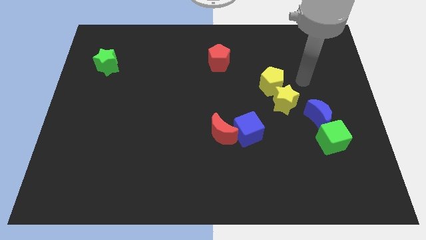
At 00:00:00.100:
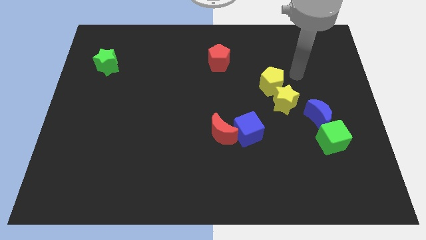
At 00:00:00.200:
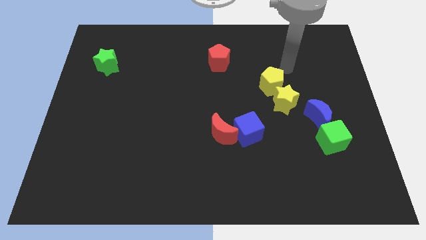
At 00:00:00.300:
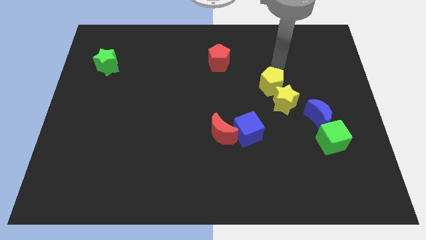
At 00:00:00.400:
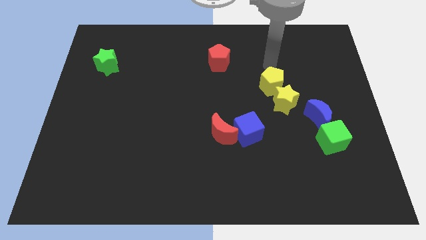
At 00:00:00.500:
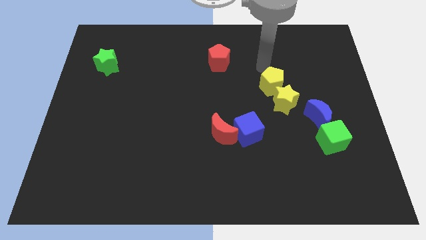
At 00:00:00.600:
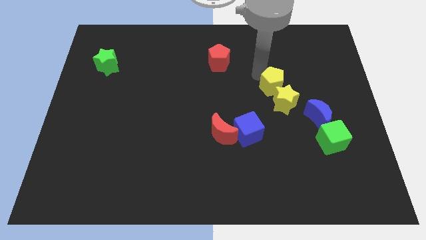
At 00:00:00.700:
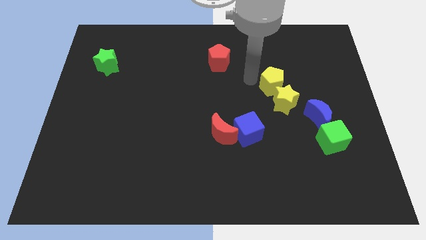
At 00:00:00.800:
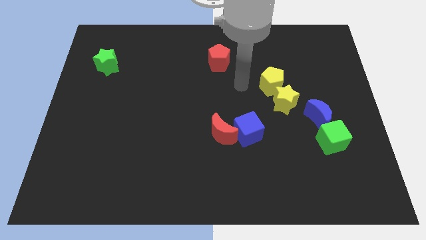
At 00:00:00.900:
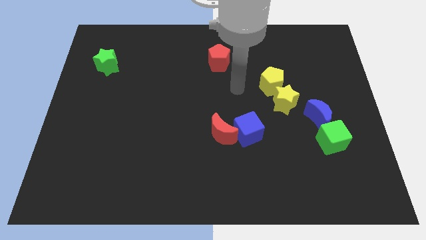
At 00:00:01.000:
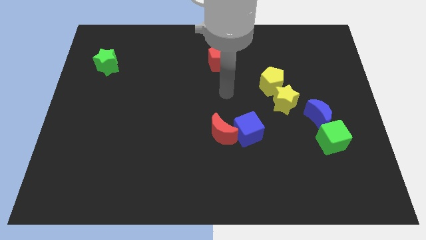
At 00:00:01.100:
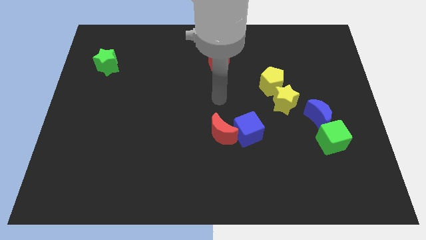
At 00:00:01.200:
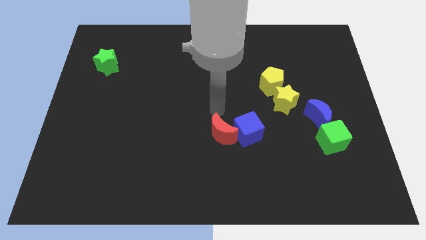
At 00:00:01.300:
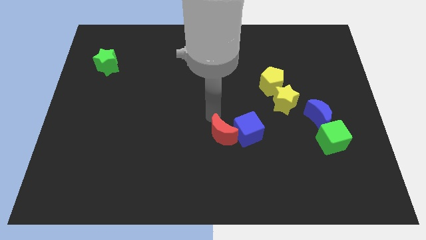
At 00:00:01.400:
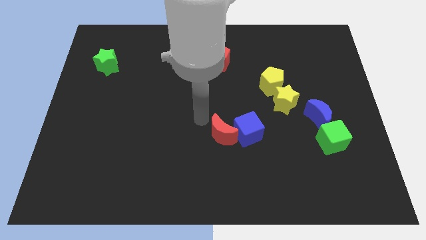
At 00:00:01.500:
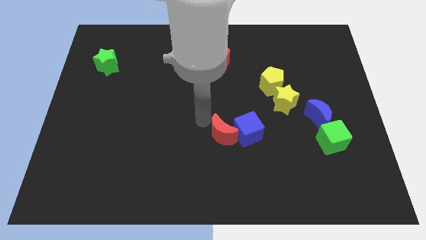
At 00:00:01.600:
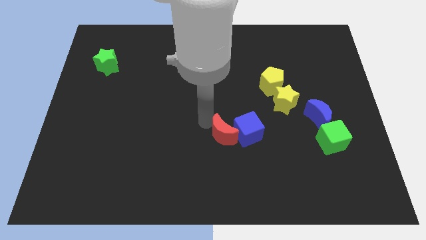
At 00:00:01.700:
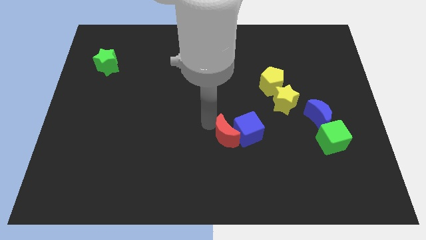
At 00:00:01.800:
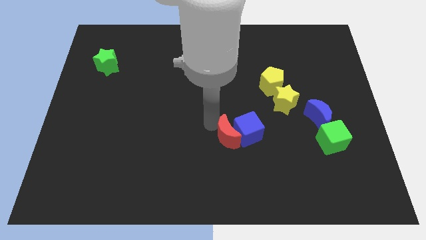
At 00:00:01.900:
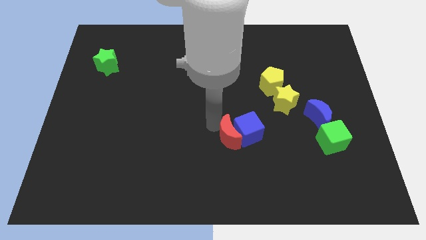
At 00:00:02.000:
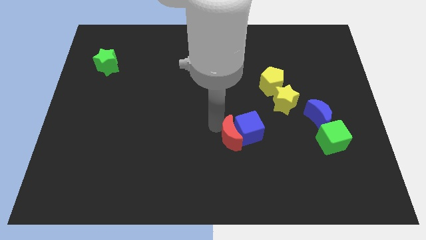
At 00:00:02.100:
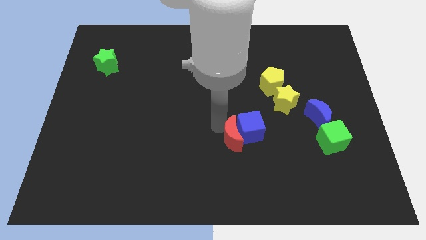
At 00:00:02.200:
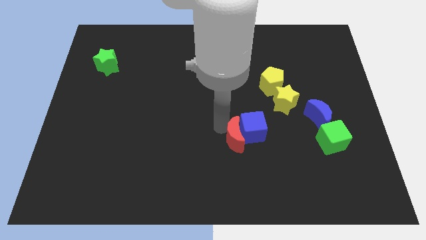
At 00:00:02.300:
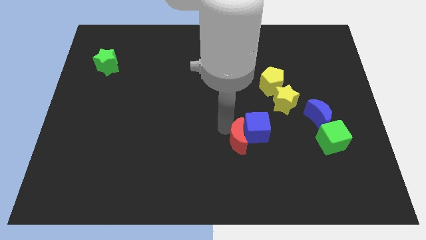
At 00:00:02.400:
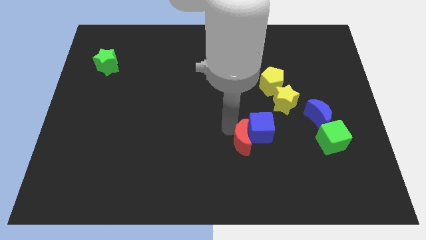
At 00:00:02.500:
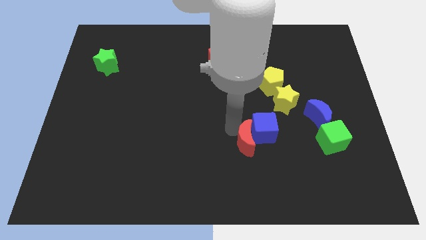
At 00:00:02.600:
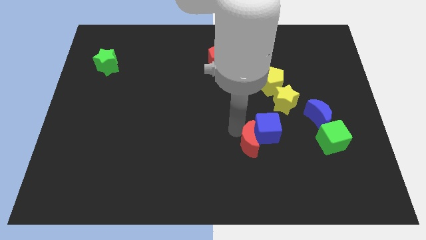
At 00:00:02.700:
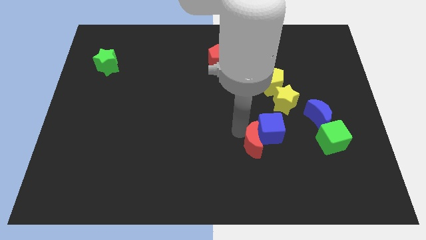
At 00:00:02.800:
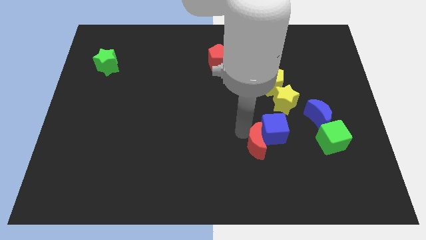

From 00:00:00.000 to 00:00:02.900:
move the red moon a little bit right

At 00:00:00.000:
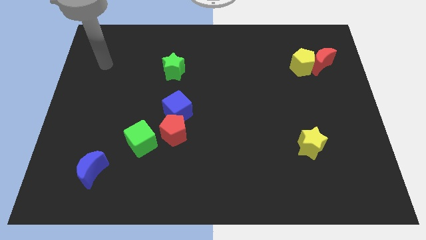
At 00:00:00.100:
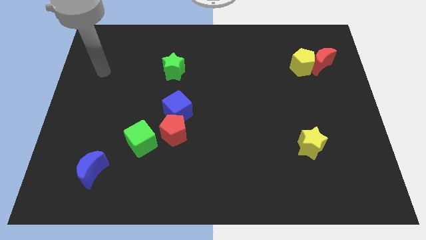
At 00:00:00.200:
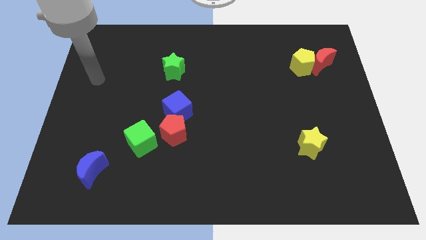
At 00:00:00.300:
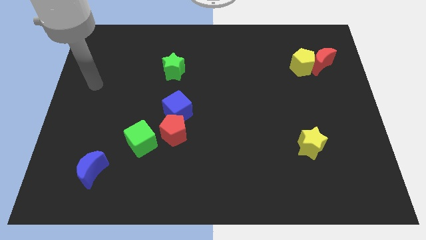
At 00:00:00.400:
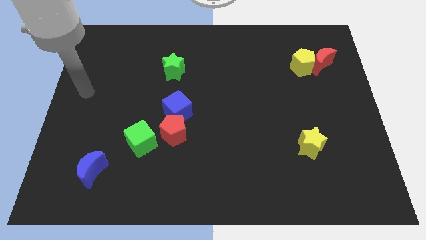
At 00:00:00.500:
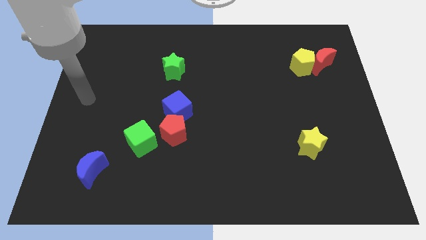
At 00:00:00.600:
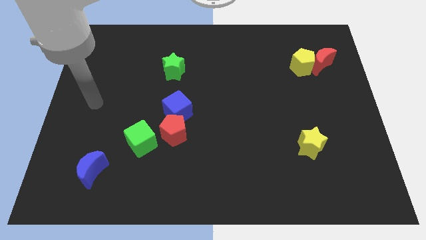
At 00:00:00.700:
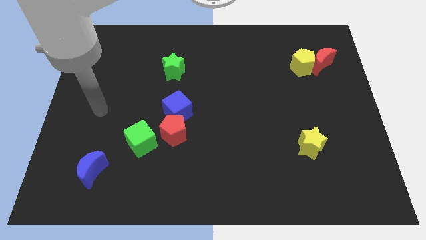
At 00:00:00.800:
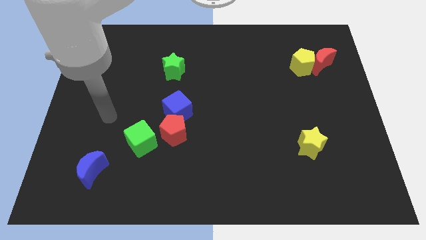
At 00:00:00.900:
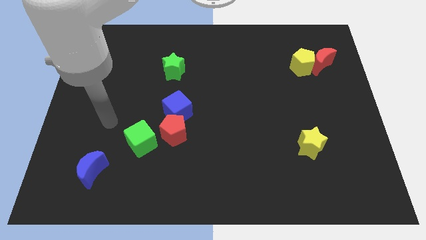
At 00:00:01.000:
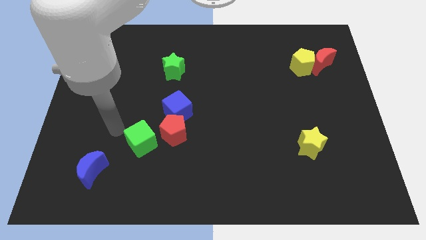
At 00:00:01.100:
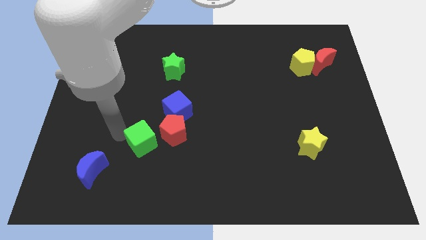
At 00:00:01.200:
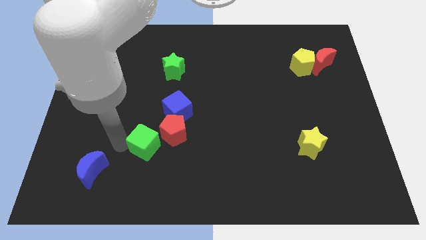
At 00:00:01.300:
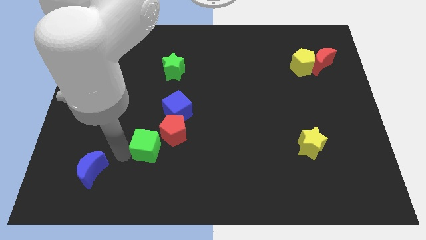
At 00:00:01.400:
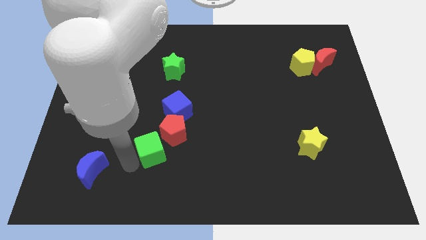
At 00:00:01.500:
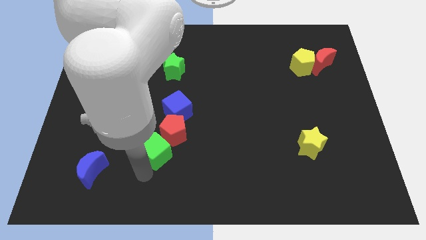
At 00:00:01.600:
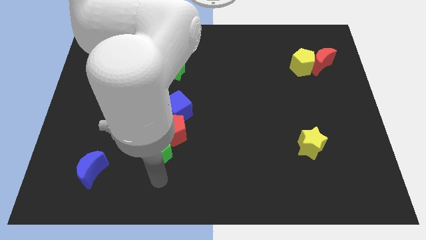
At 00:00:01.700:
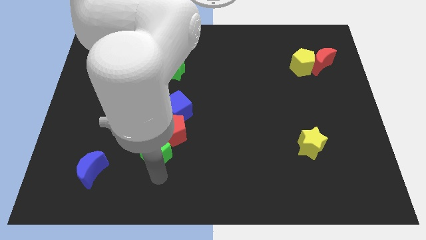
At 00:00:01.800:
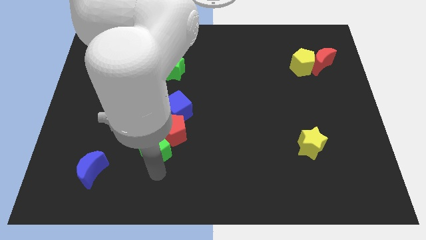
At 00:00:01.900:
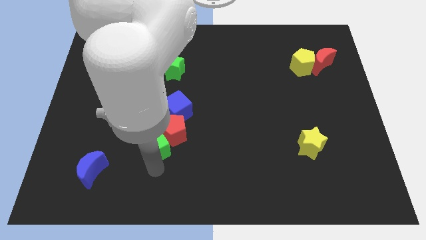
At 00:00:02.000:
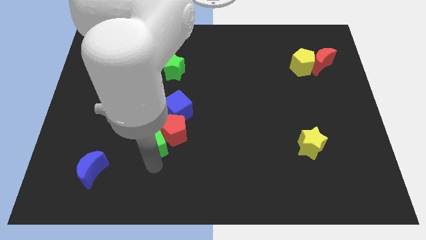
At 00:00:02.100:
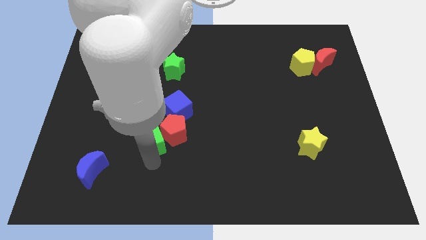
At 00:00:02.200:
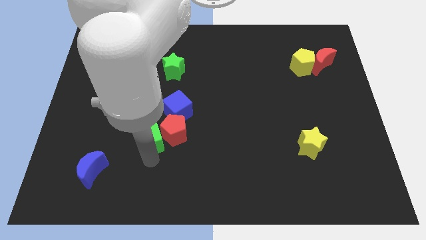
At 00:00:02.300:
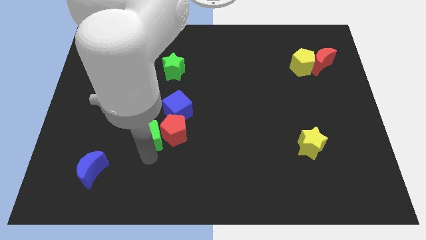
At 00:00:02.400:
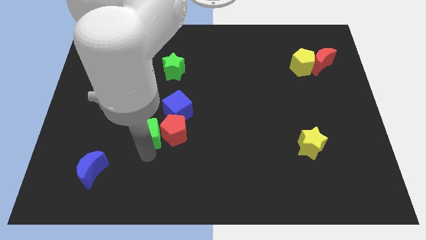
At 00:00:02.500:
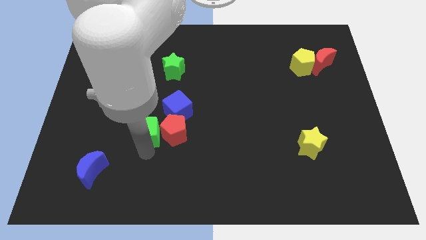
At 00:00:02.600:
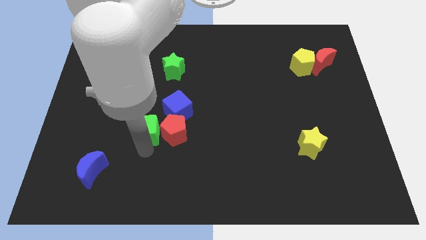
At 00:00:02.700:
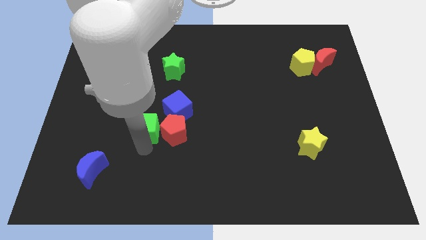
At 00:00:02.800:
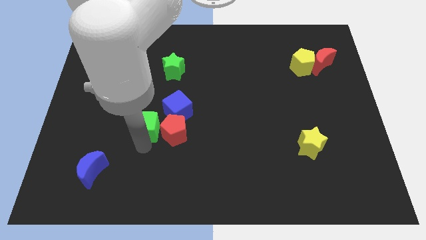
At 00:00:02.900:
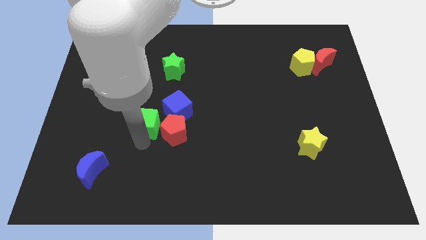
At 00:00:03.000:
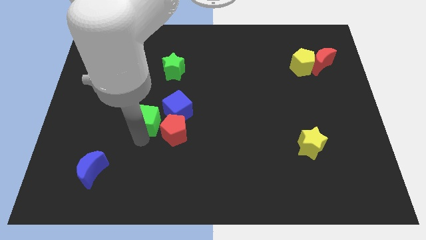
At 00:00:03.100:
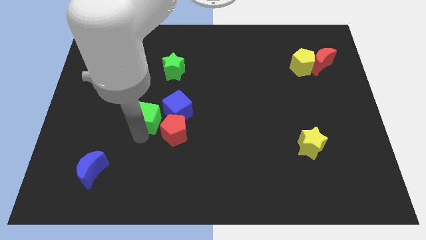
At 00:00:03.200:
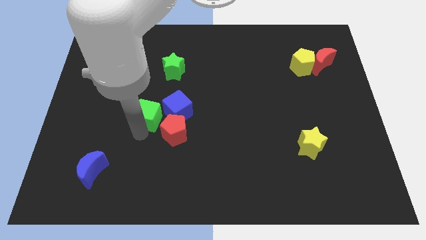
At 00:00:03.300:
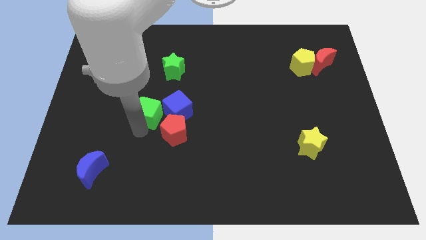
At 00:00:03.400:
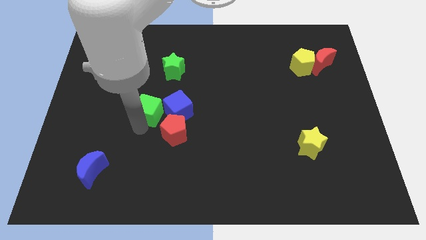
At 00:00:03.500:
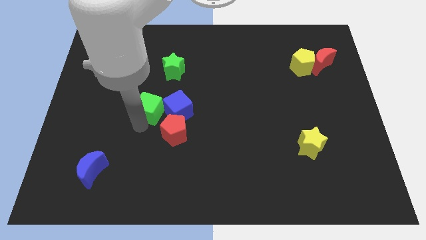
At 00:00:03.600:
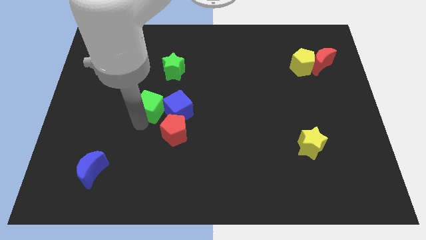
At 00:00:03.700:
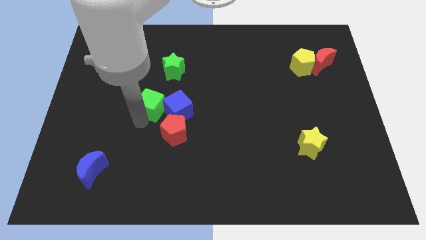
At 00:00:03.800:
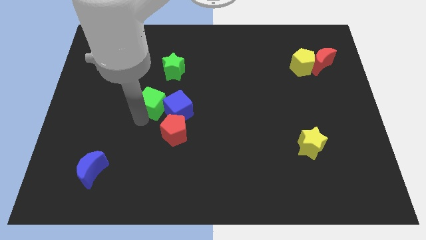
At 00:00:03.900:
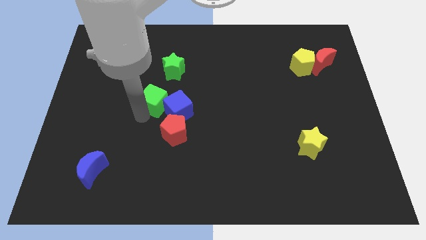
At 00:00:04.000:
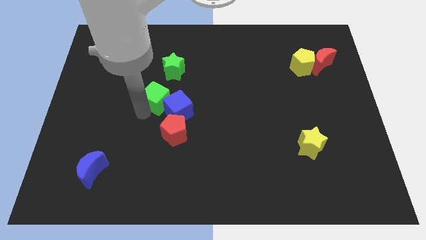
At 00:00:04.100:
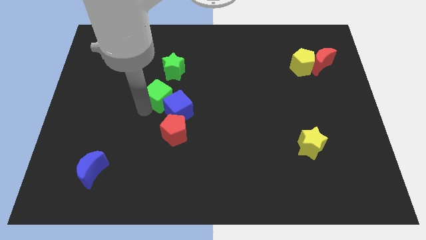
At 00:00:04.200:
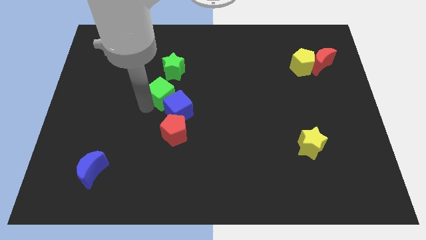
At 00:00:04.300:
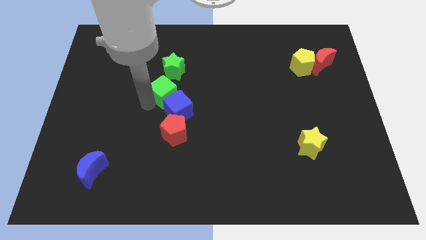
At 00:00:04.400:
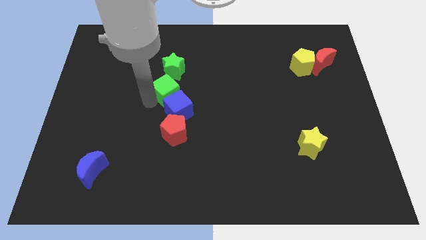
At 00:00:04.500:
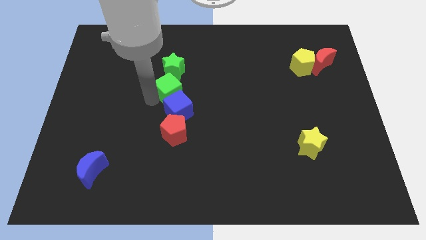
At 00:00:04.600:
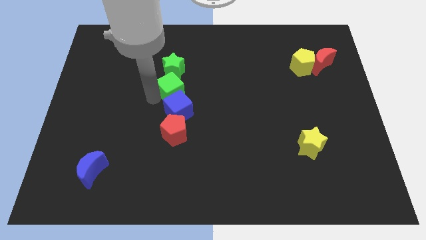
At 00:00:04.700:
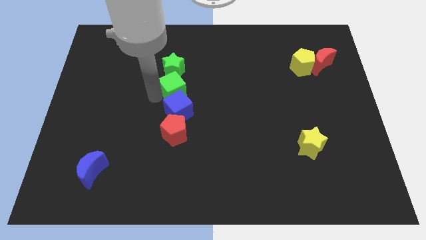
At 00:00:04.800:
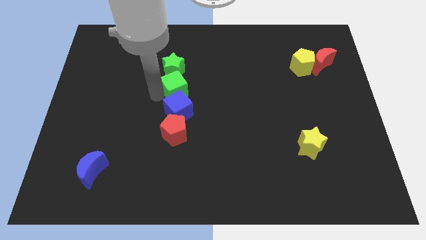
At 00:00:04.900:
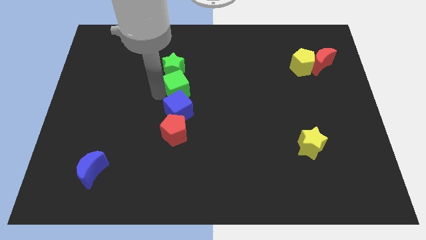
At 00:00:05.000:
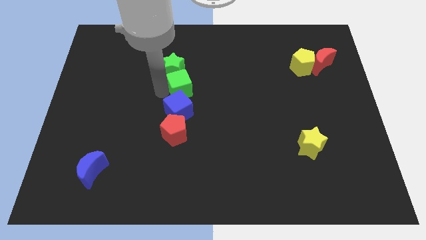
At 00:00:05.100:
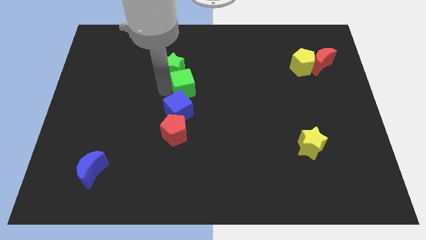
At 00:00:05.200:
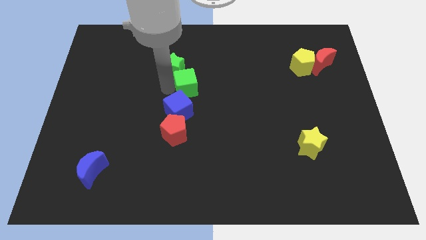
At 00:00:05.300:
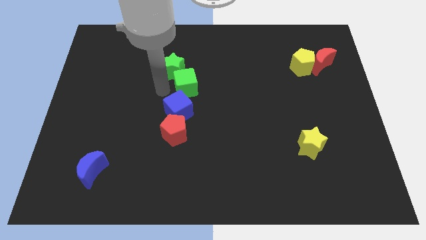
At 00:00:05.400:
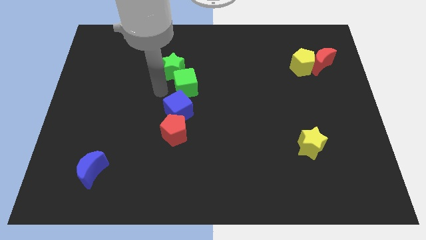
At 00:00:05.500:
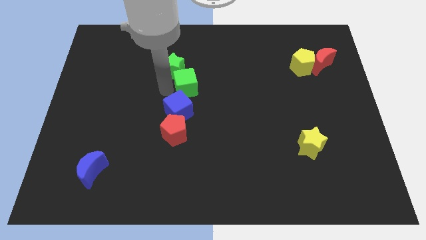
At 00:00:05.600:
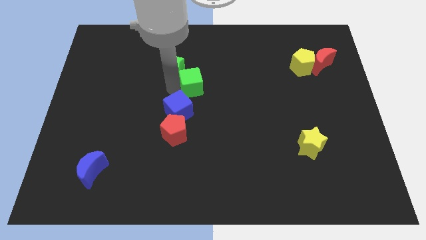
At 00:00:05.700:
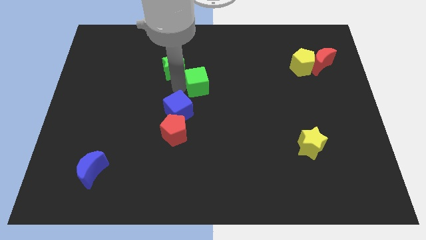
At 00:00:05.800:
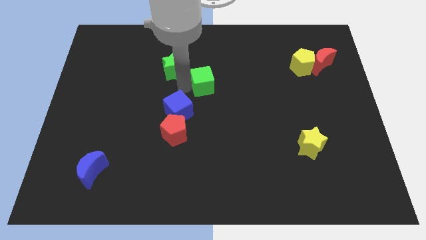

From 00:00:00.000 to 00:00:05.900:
slide the green cube up and right diagonally
